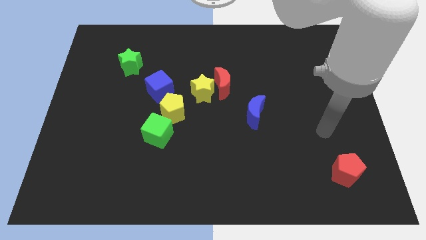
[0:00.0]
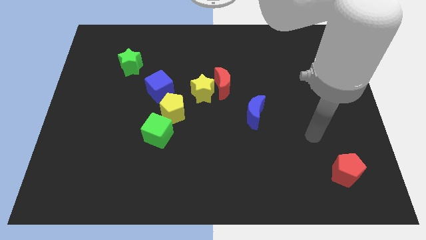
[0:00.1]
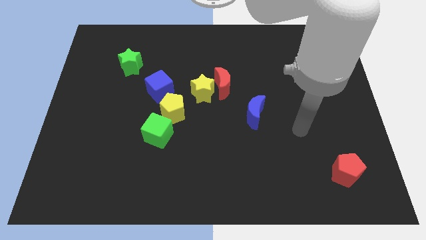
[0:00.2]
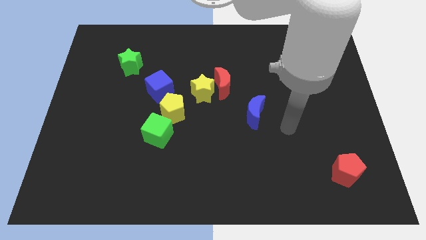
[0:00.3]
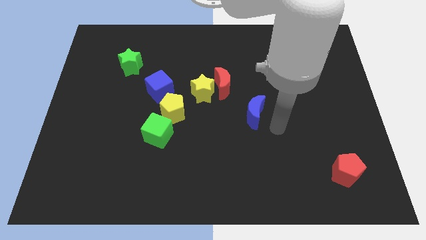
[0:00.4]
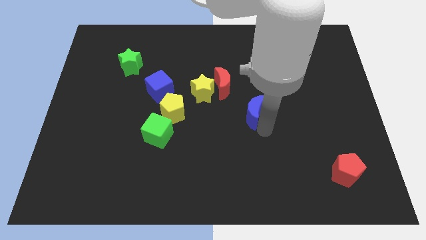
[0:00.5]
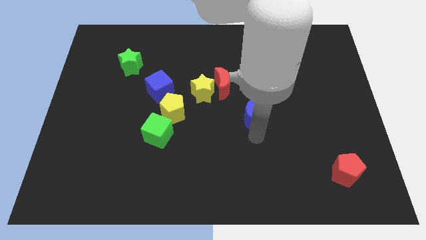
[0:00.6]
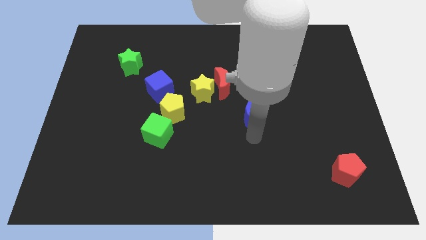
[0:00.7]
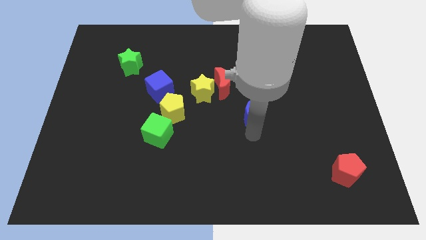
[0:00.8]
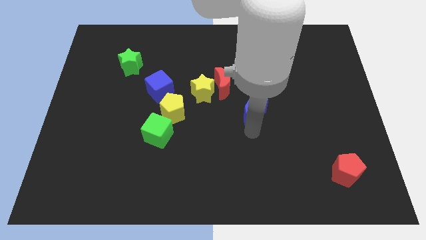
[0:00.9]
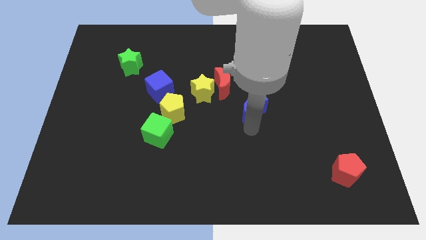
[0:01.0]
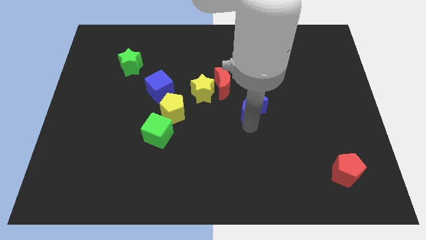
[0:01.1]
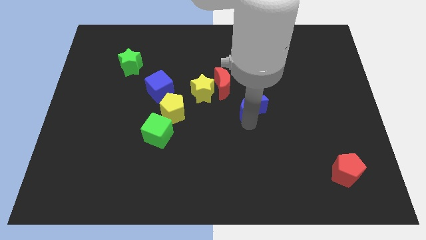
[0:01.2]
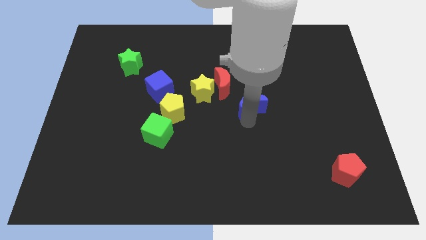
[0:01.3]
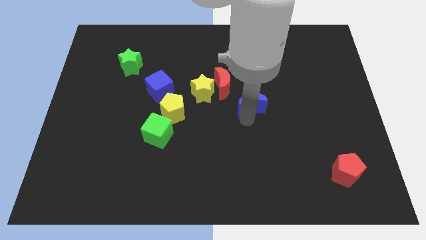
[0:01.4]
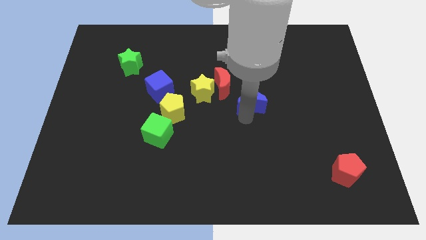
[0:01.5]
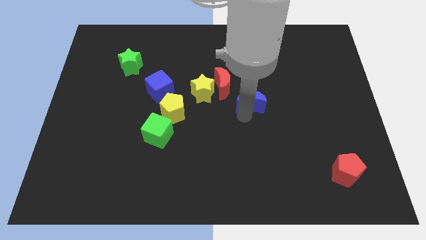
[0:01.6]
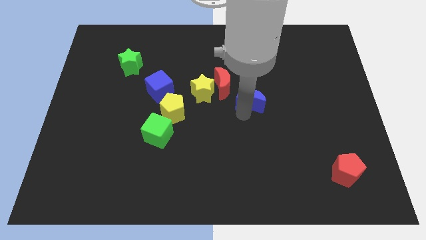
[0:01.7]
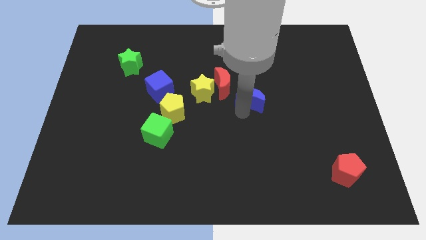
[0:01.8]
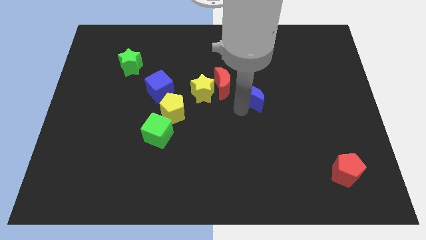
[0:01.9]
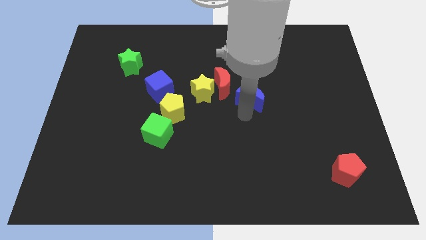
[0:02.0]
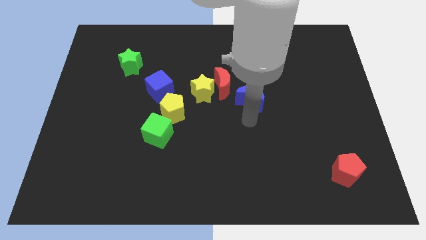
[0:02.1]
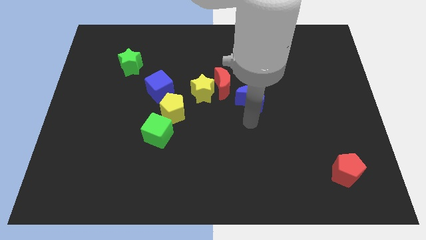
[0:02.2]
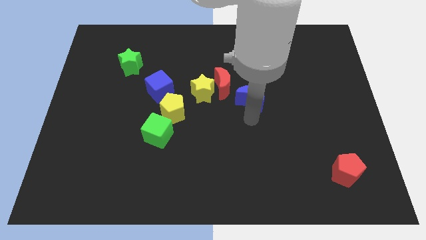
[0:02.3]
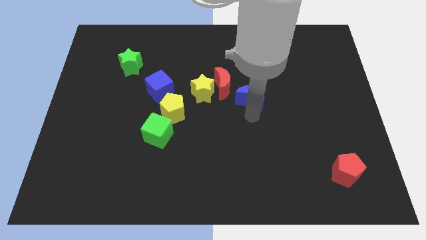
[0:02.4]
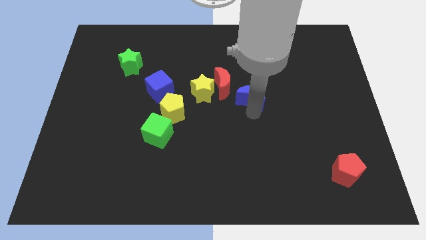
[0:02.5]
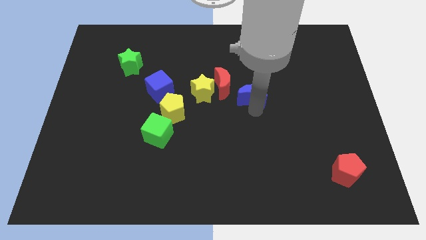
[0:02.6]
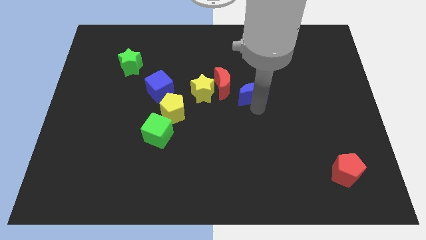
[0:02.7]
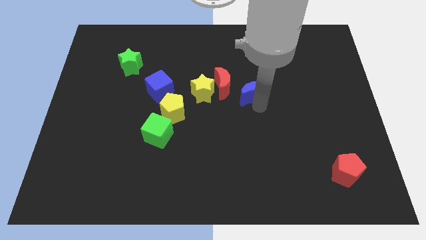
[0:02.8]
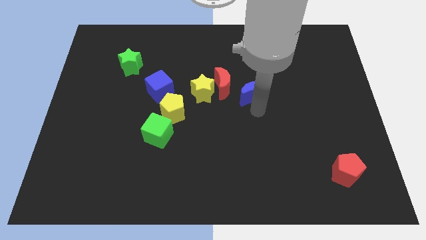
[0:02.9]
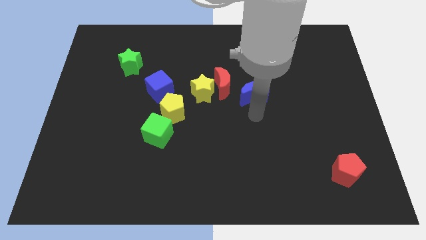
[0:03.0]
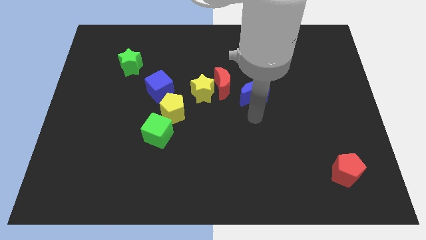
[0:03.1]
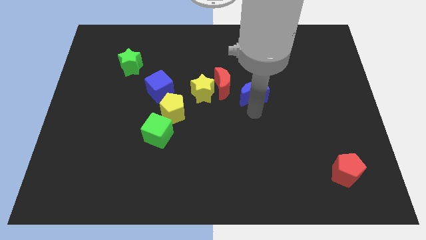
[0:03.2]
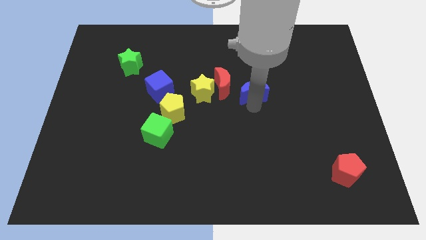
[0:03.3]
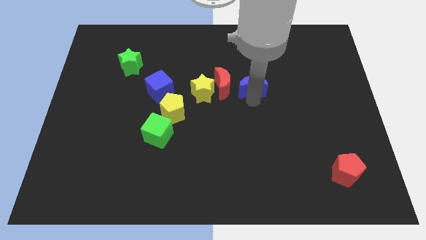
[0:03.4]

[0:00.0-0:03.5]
slightly slide the blue moon upwards

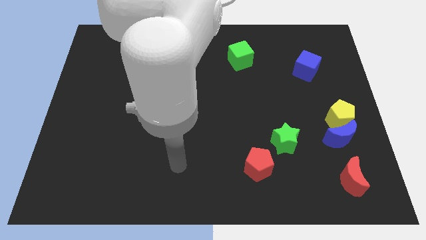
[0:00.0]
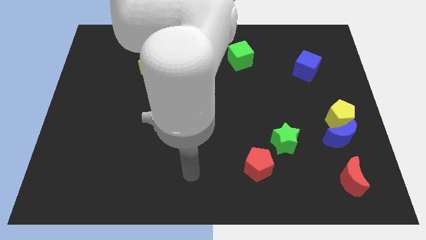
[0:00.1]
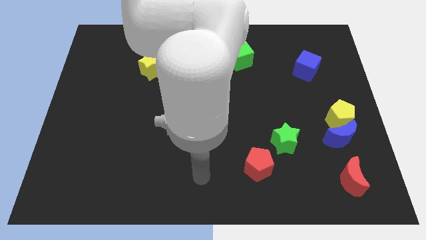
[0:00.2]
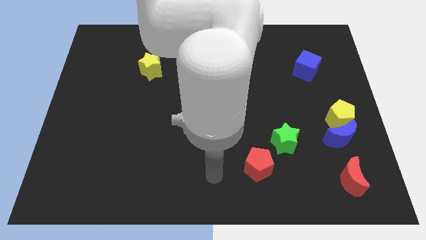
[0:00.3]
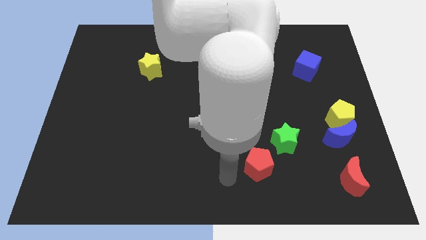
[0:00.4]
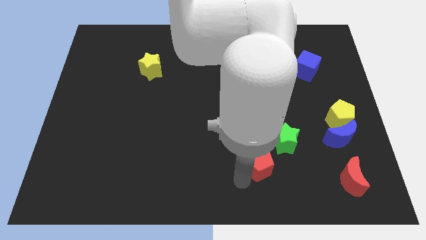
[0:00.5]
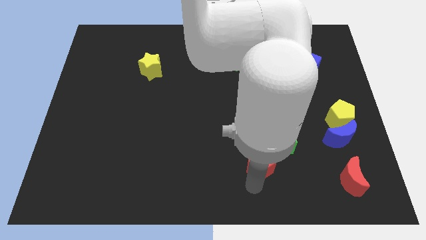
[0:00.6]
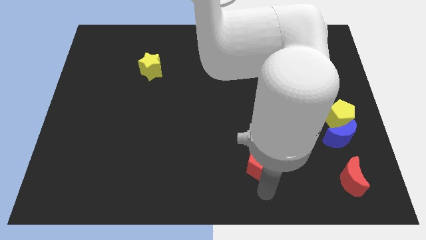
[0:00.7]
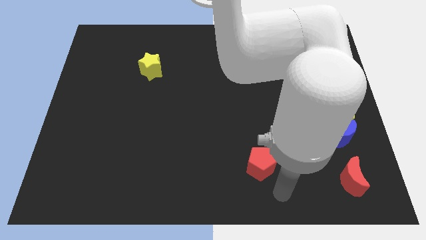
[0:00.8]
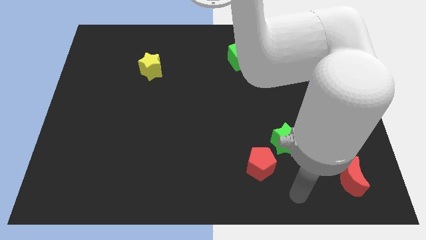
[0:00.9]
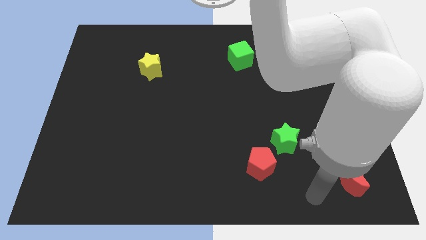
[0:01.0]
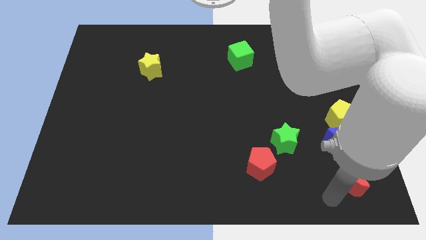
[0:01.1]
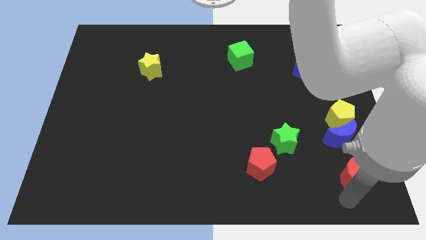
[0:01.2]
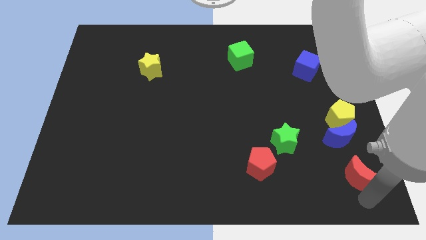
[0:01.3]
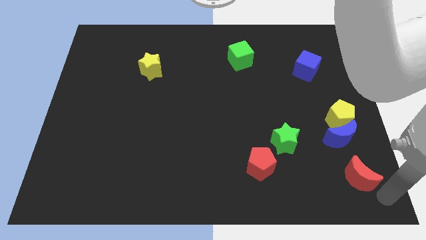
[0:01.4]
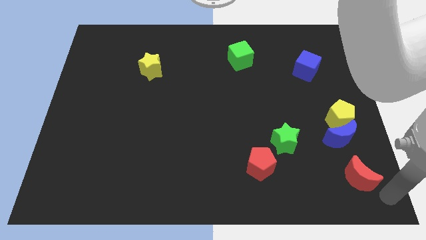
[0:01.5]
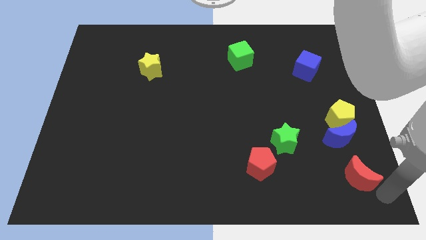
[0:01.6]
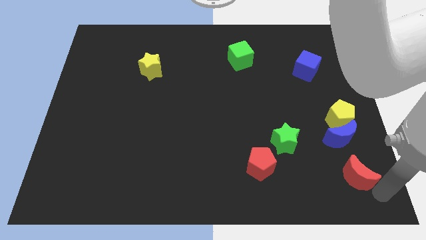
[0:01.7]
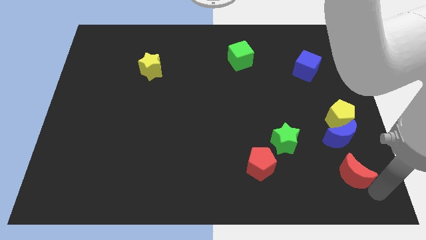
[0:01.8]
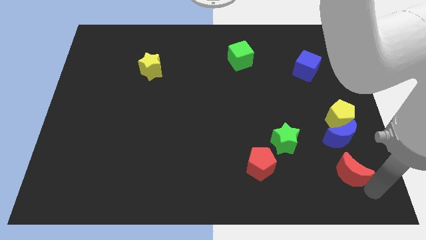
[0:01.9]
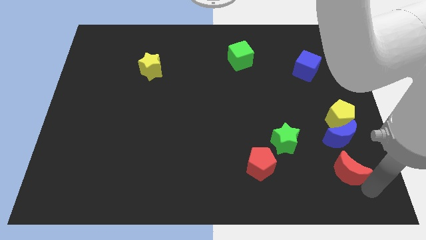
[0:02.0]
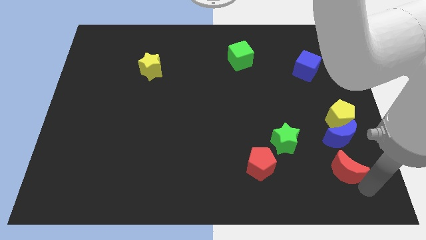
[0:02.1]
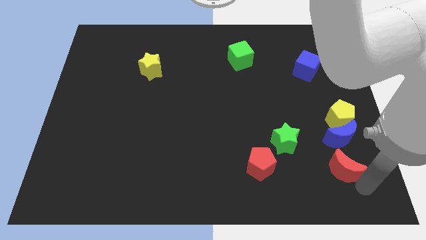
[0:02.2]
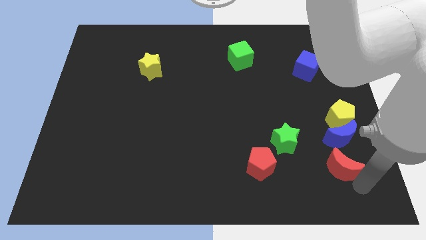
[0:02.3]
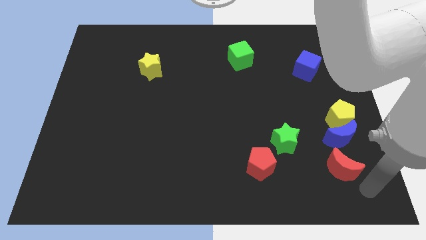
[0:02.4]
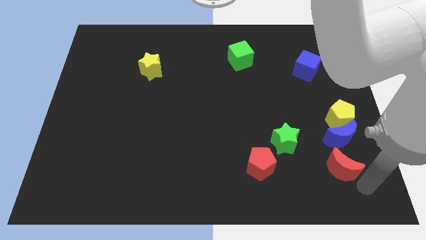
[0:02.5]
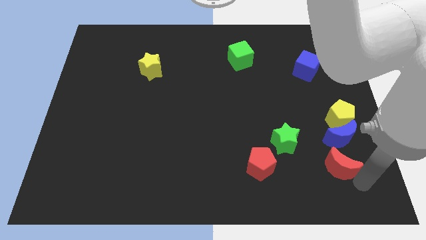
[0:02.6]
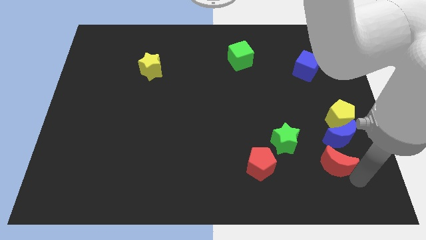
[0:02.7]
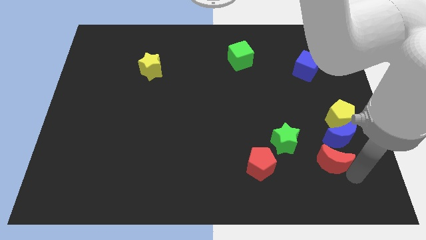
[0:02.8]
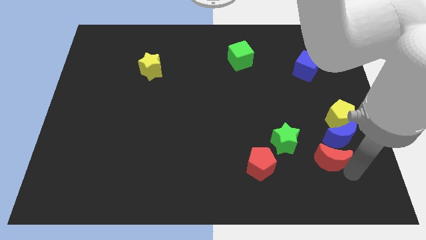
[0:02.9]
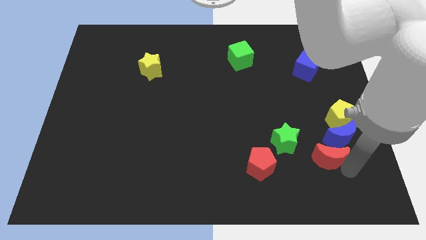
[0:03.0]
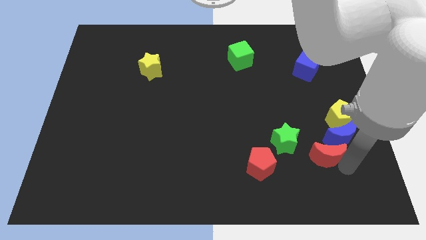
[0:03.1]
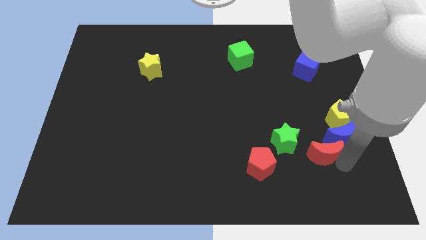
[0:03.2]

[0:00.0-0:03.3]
slightly slide the red moon up and to the left

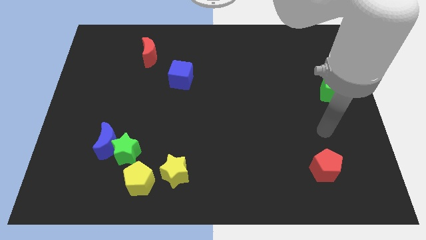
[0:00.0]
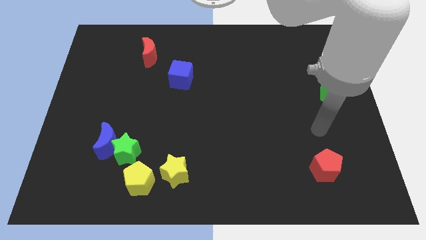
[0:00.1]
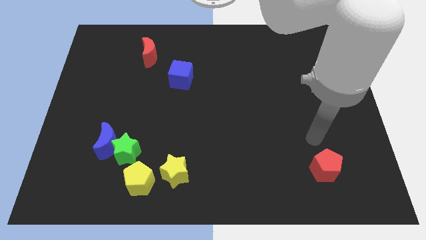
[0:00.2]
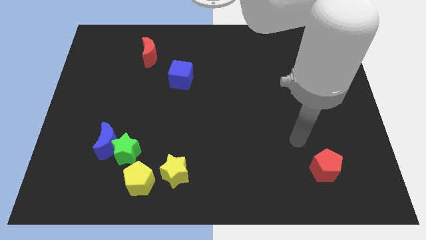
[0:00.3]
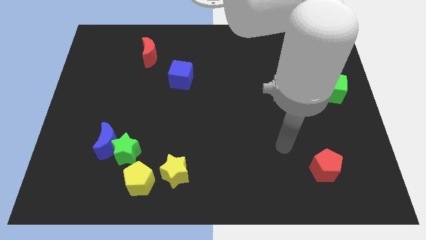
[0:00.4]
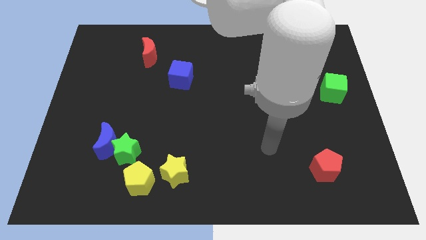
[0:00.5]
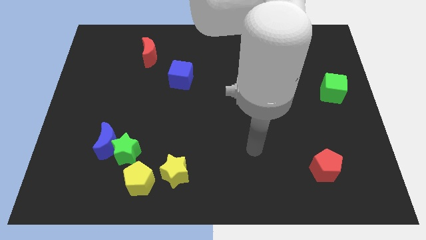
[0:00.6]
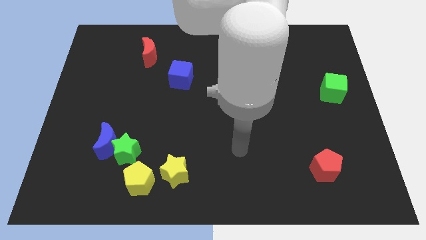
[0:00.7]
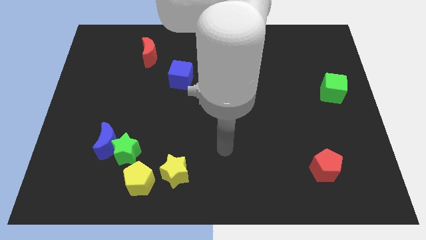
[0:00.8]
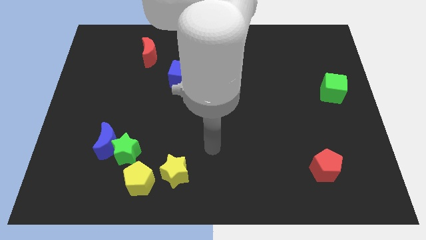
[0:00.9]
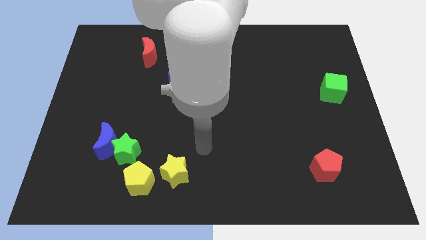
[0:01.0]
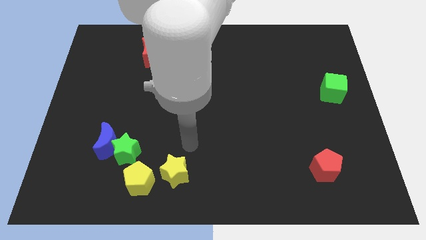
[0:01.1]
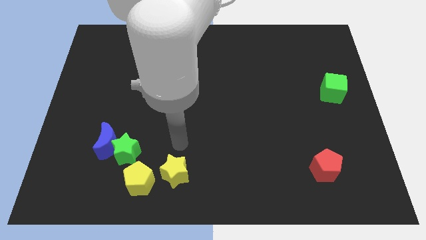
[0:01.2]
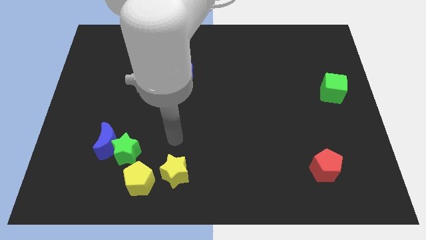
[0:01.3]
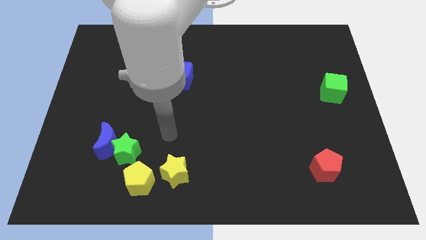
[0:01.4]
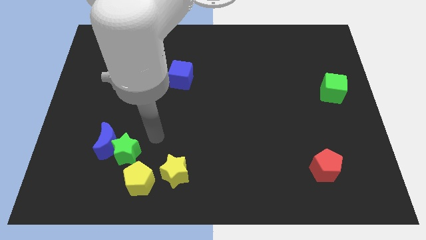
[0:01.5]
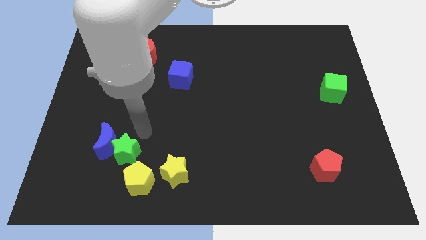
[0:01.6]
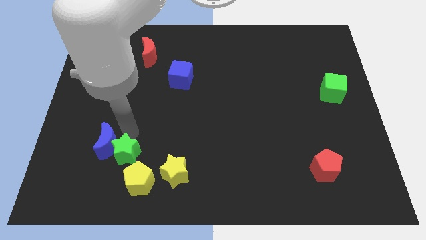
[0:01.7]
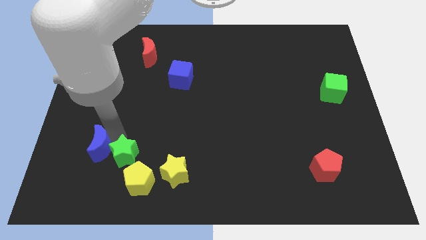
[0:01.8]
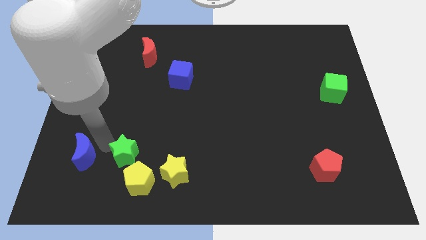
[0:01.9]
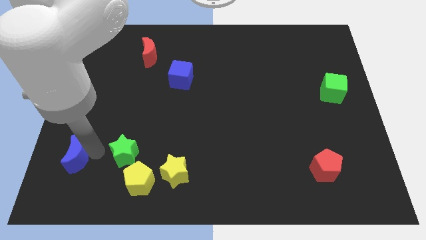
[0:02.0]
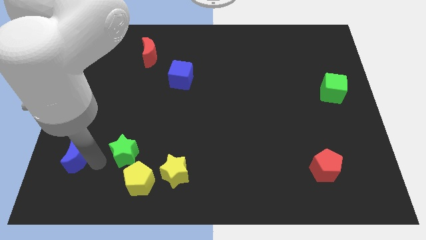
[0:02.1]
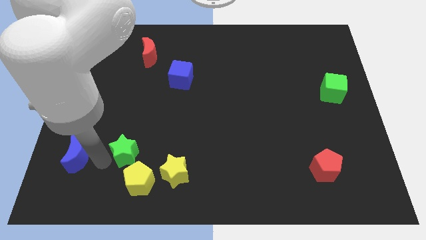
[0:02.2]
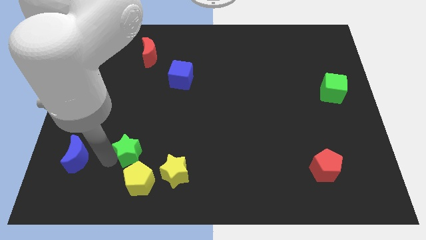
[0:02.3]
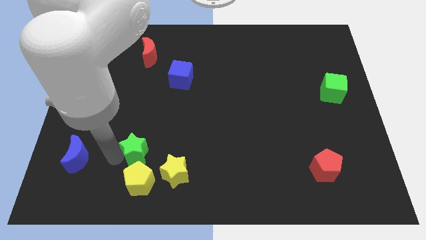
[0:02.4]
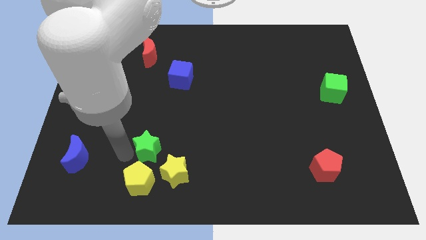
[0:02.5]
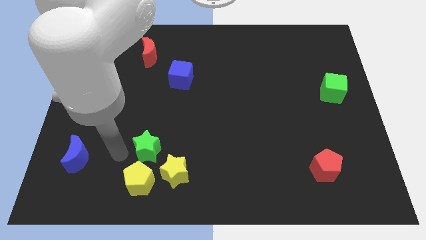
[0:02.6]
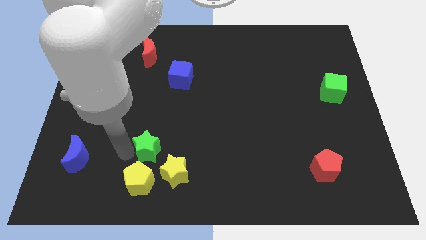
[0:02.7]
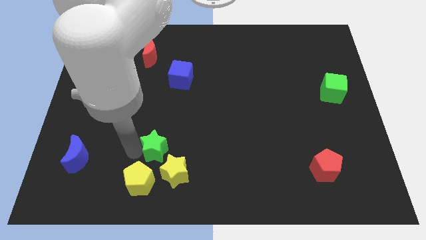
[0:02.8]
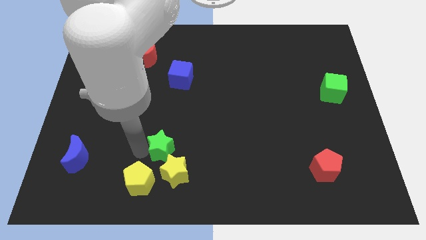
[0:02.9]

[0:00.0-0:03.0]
slightly push the green star to the right
